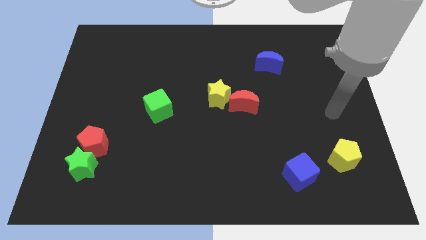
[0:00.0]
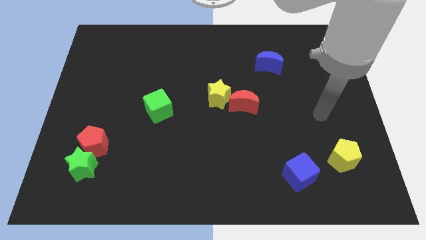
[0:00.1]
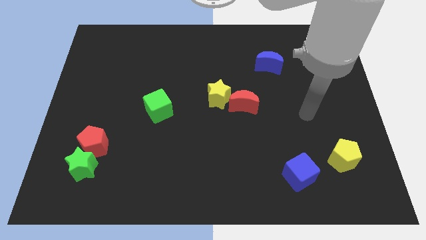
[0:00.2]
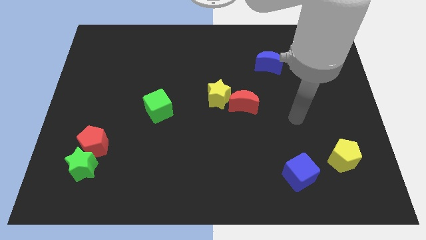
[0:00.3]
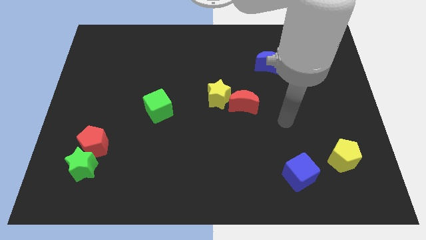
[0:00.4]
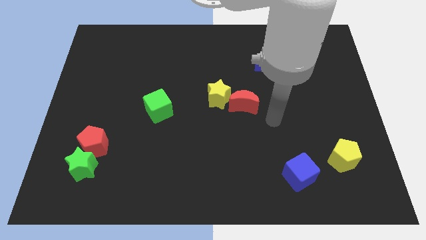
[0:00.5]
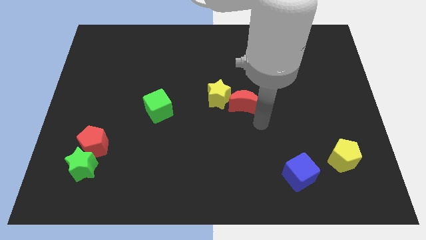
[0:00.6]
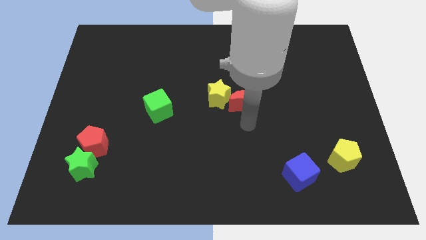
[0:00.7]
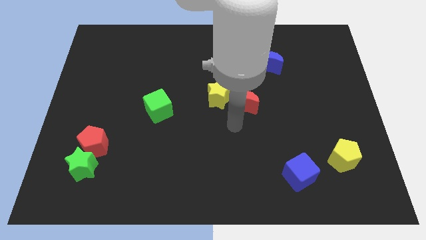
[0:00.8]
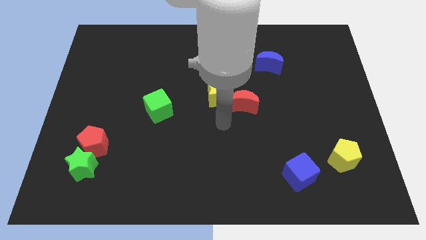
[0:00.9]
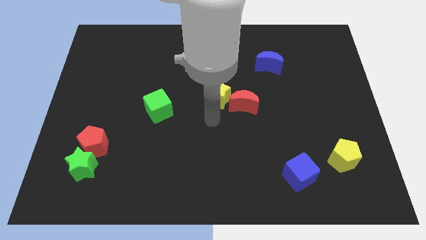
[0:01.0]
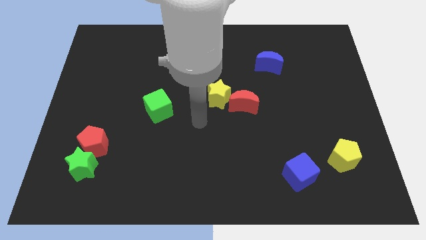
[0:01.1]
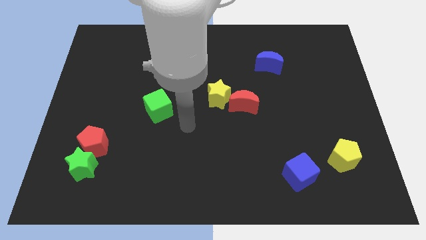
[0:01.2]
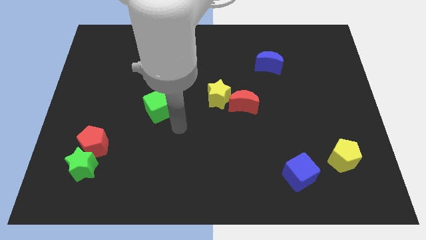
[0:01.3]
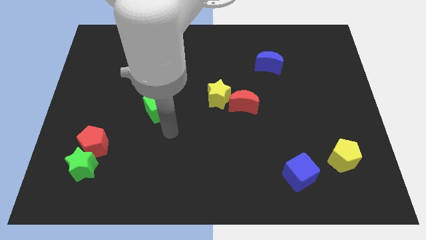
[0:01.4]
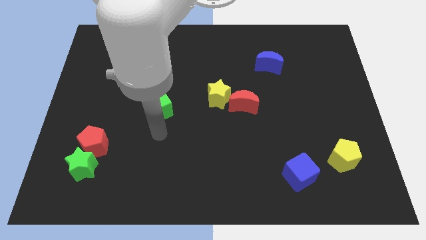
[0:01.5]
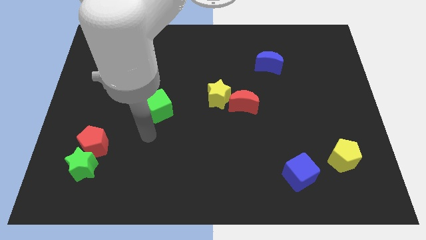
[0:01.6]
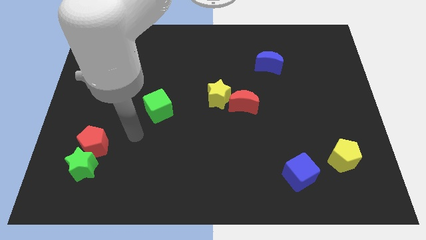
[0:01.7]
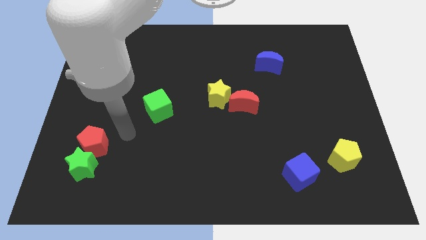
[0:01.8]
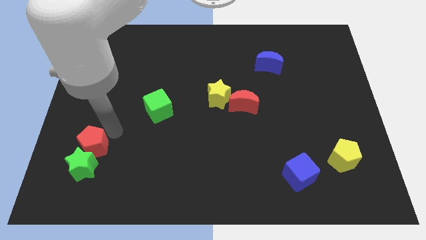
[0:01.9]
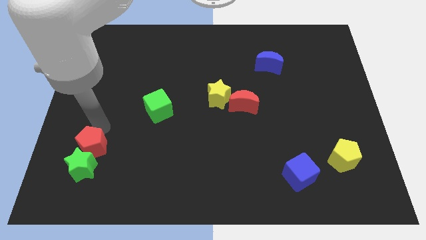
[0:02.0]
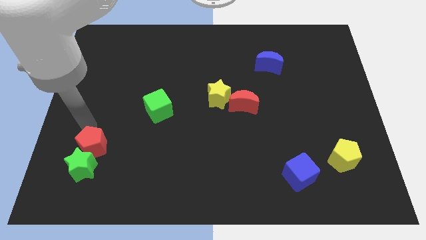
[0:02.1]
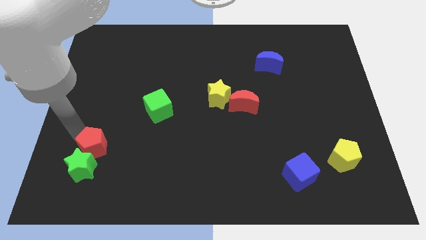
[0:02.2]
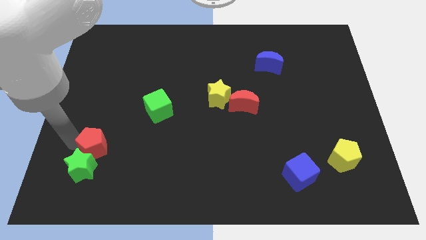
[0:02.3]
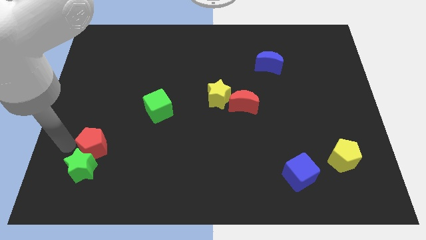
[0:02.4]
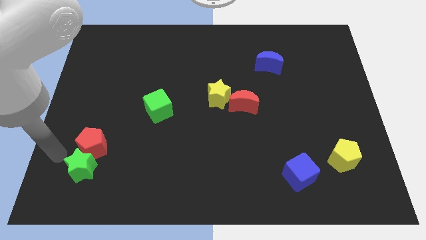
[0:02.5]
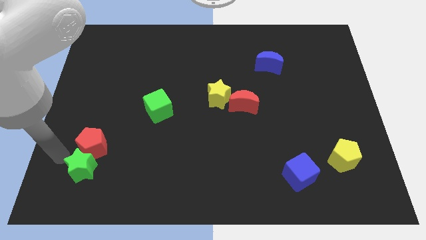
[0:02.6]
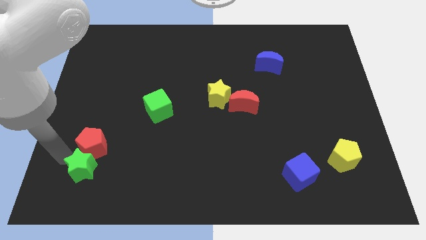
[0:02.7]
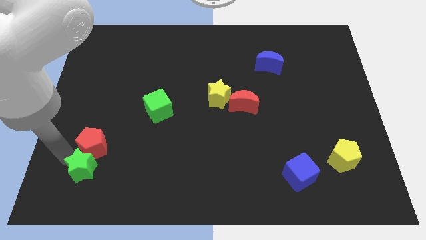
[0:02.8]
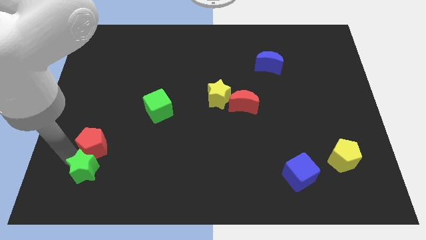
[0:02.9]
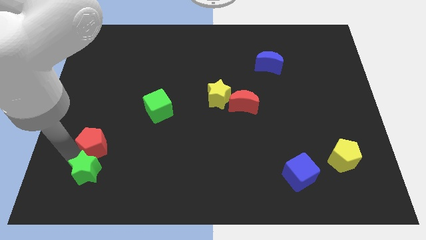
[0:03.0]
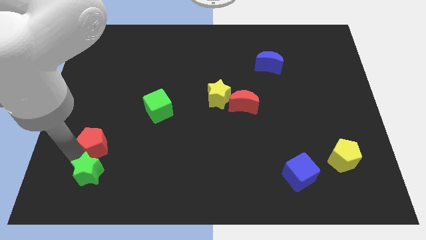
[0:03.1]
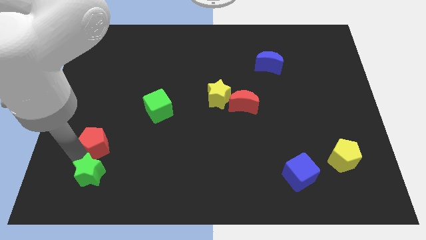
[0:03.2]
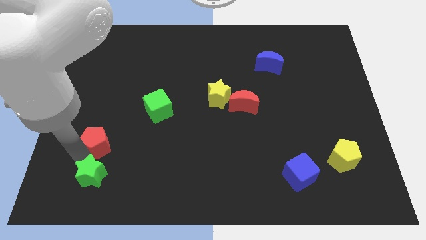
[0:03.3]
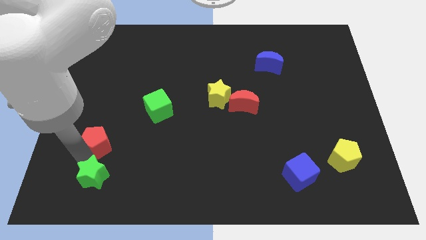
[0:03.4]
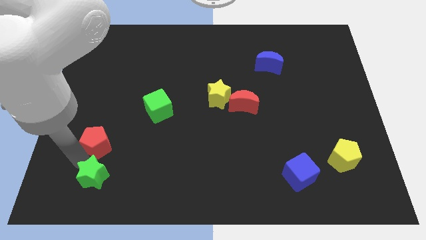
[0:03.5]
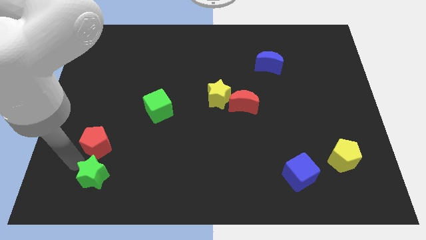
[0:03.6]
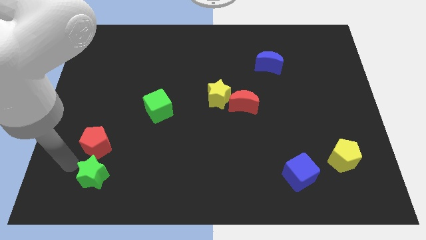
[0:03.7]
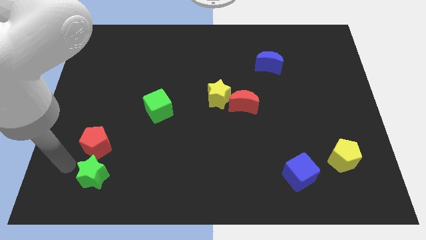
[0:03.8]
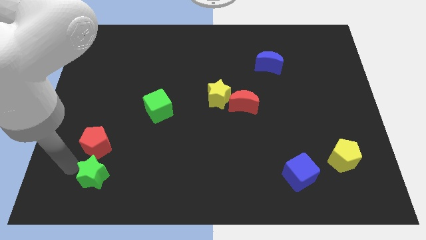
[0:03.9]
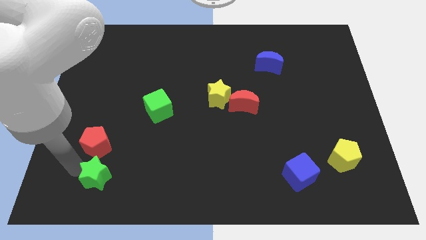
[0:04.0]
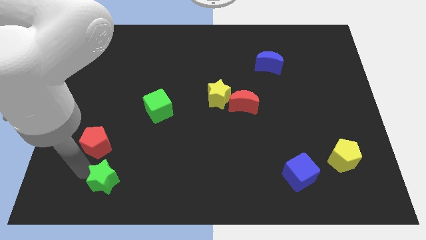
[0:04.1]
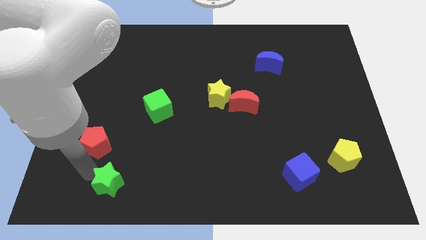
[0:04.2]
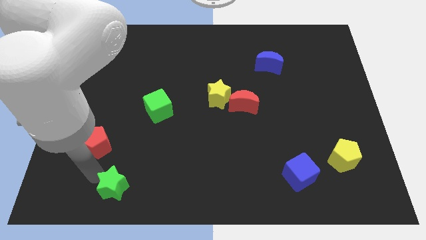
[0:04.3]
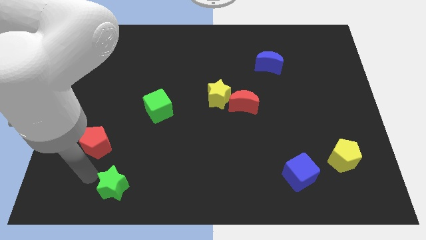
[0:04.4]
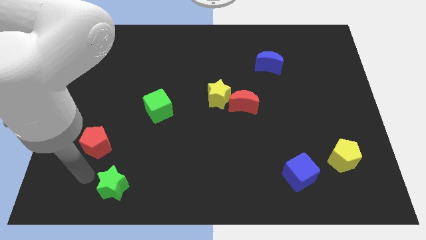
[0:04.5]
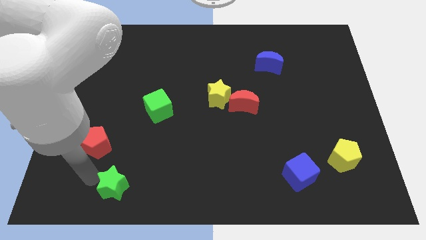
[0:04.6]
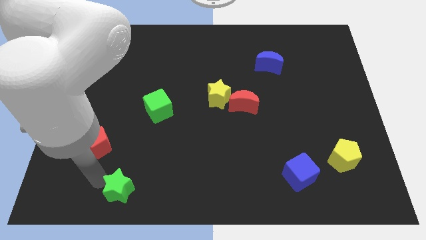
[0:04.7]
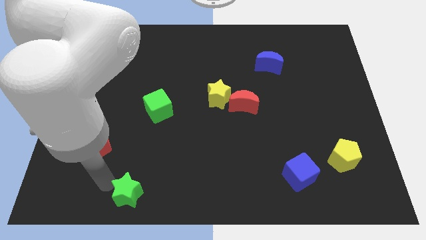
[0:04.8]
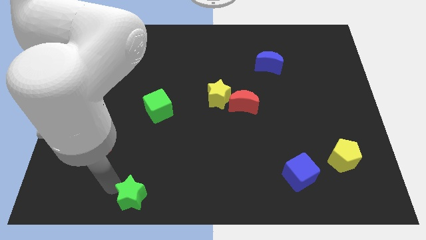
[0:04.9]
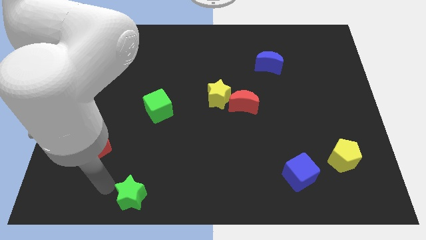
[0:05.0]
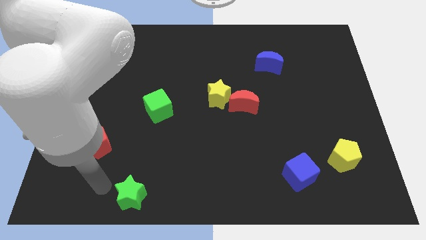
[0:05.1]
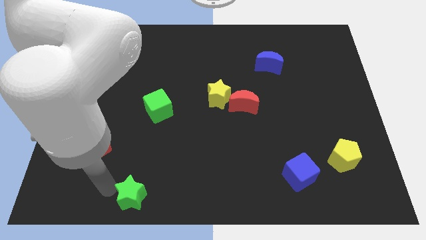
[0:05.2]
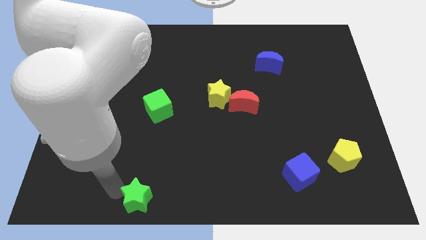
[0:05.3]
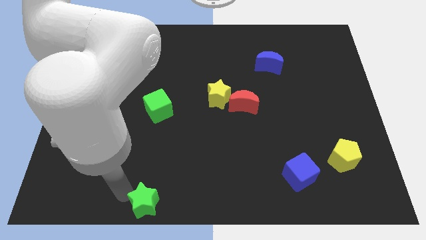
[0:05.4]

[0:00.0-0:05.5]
slide the green star to the bottom side

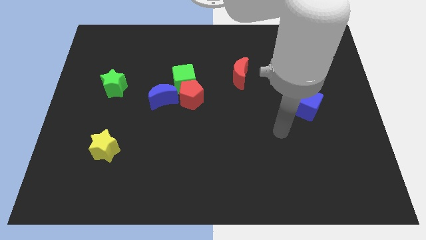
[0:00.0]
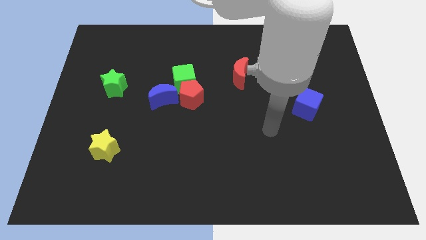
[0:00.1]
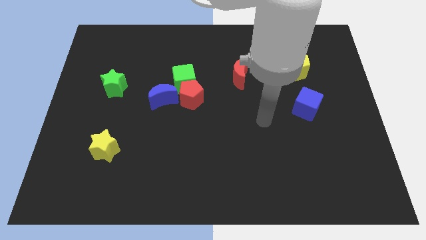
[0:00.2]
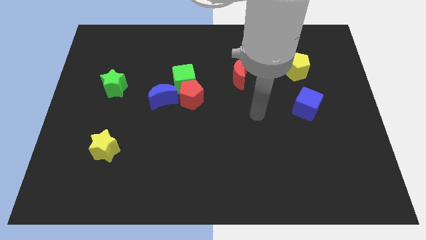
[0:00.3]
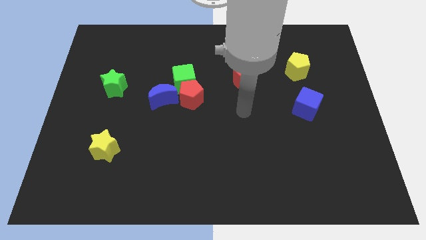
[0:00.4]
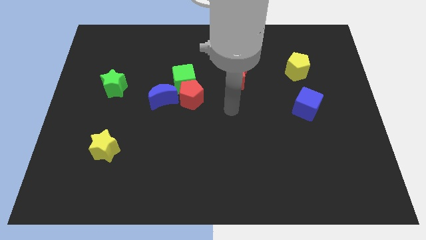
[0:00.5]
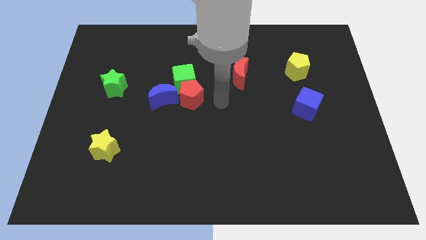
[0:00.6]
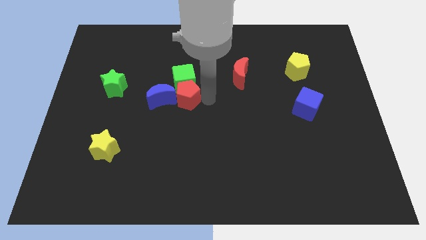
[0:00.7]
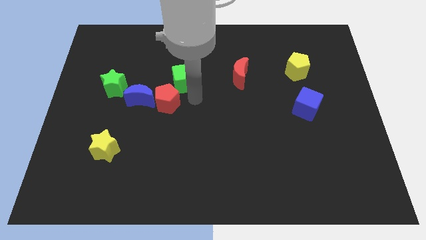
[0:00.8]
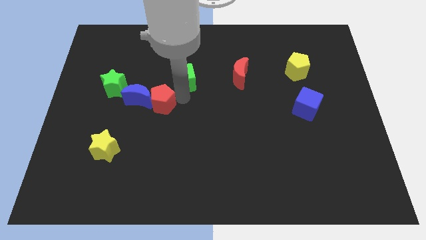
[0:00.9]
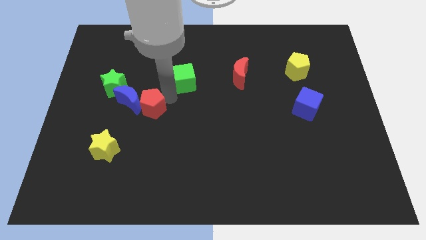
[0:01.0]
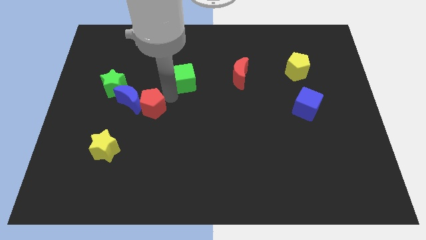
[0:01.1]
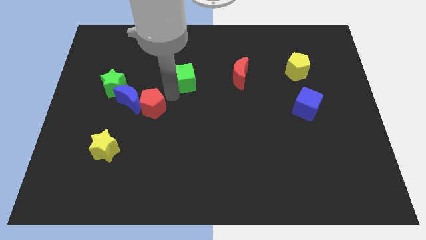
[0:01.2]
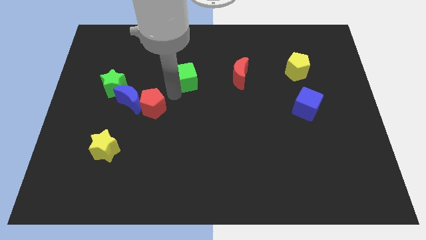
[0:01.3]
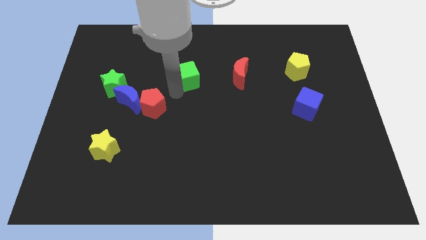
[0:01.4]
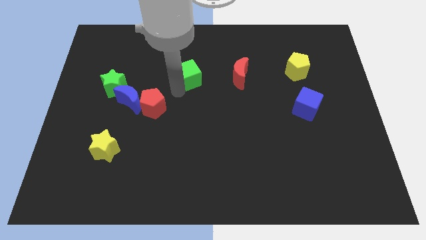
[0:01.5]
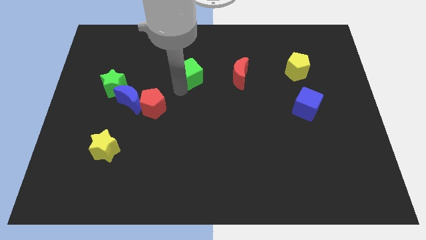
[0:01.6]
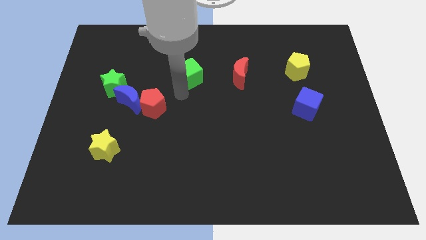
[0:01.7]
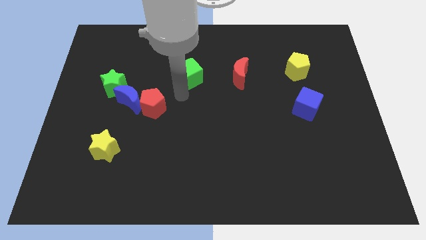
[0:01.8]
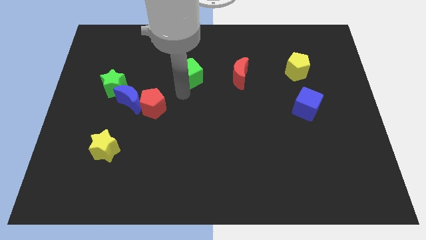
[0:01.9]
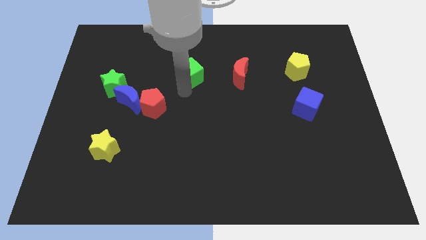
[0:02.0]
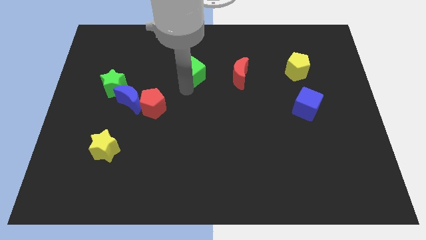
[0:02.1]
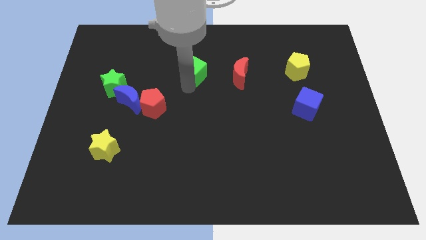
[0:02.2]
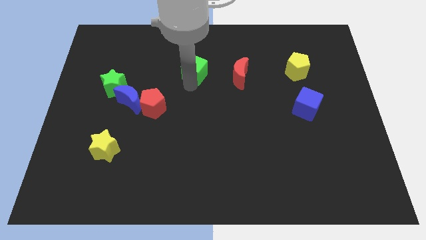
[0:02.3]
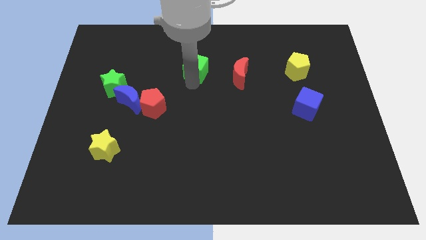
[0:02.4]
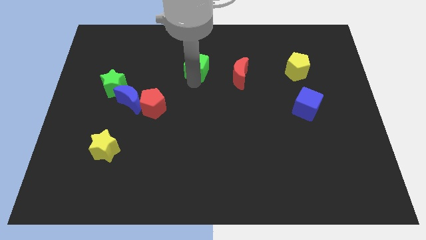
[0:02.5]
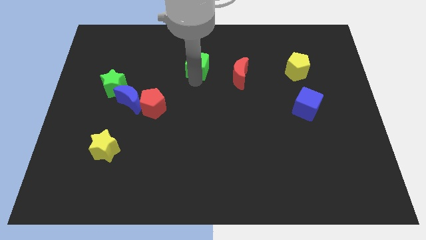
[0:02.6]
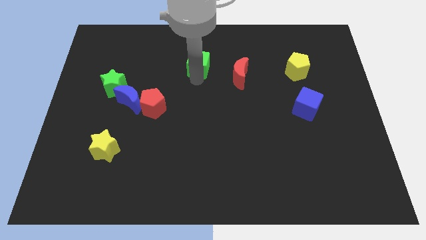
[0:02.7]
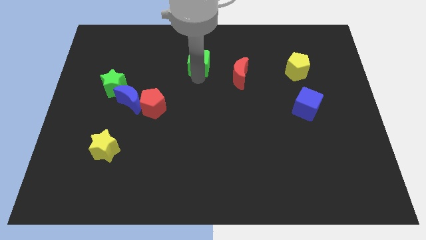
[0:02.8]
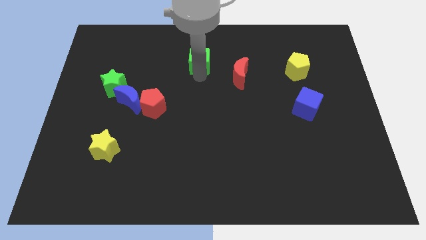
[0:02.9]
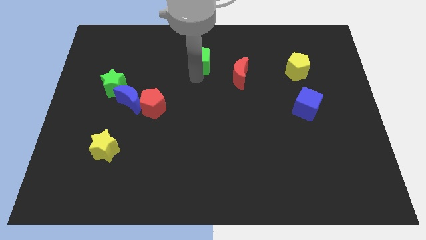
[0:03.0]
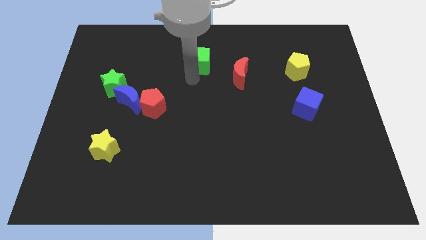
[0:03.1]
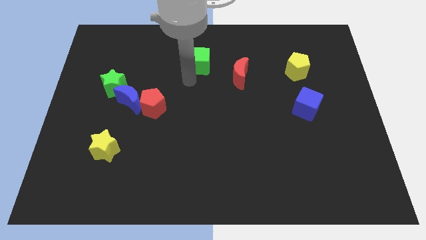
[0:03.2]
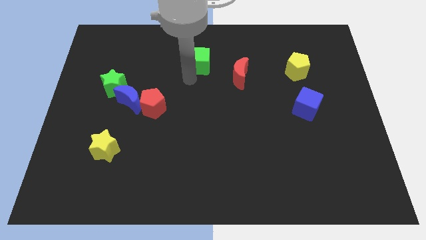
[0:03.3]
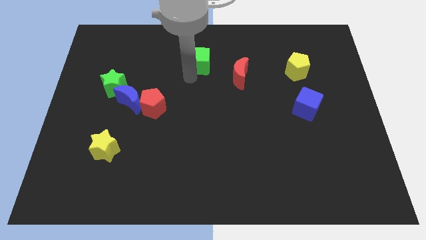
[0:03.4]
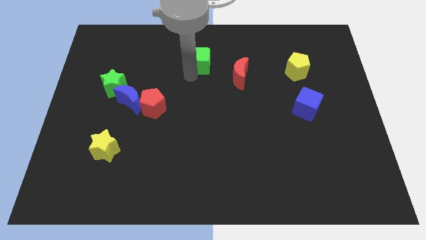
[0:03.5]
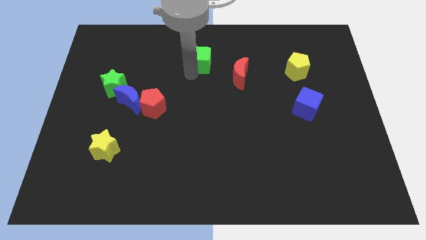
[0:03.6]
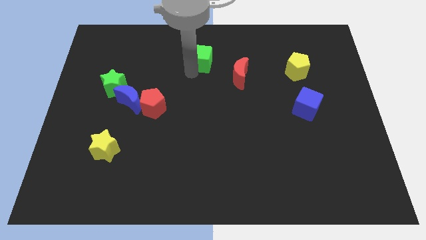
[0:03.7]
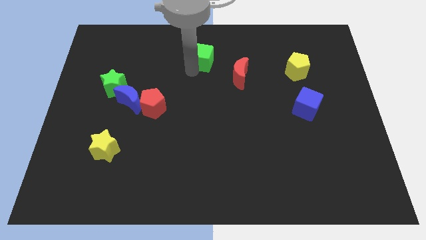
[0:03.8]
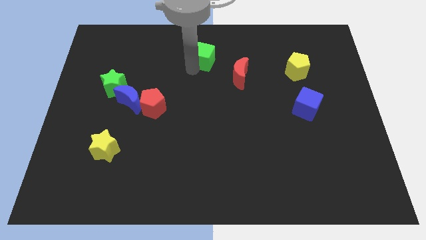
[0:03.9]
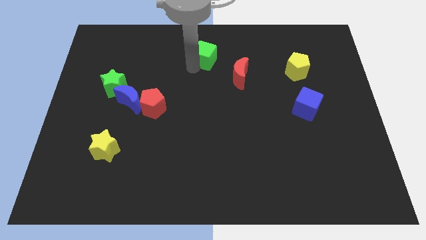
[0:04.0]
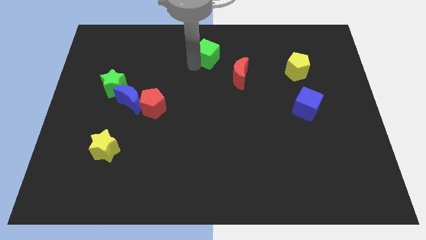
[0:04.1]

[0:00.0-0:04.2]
push the green cube to the towards your base
